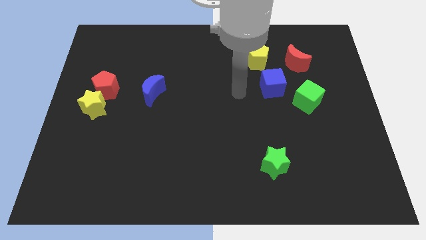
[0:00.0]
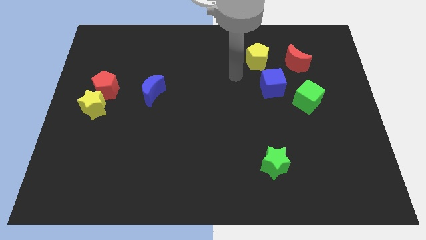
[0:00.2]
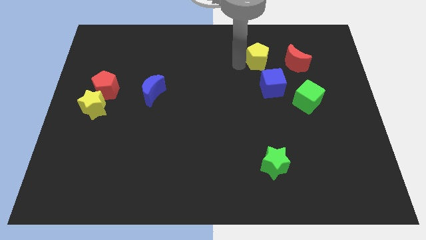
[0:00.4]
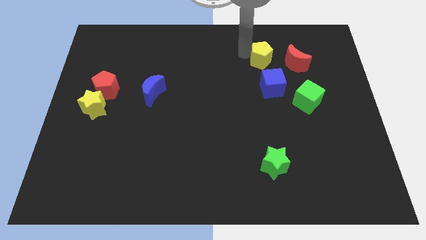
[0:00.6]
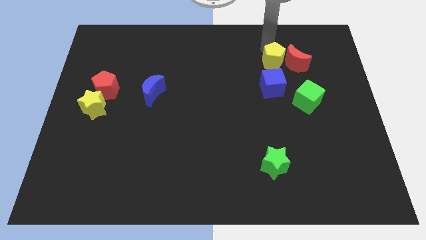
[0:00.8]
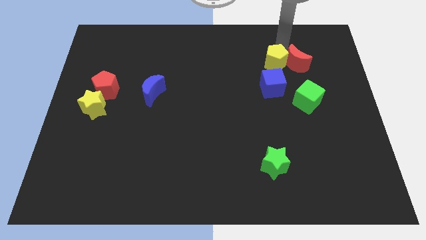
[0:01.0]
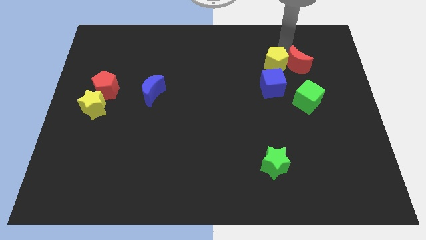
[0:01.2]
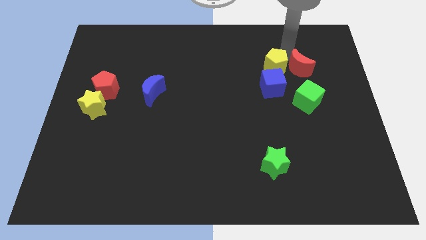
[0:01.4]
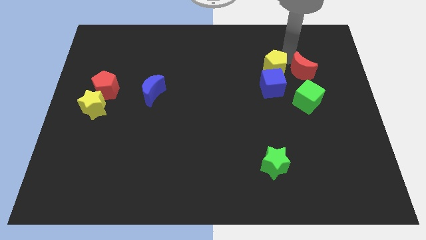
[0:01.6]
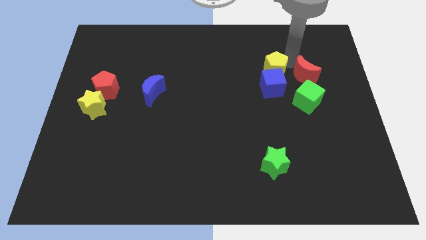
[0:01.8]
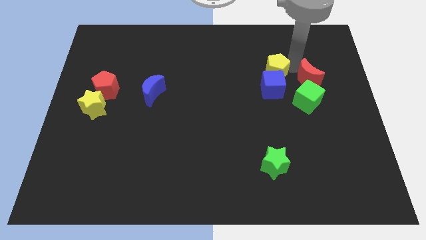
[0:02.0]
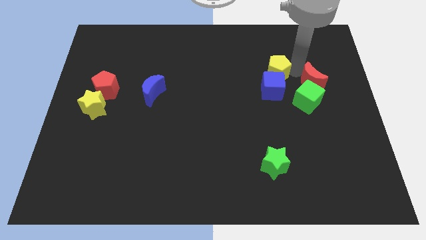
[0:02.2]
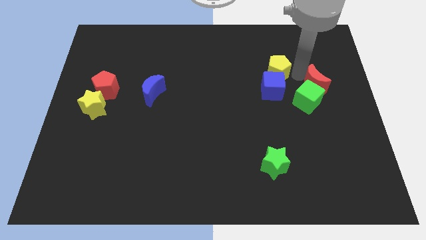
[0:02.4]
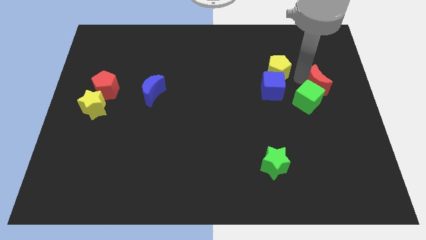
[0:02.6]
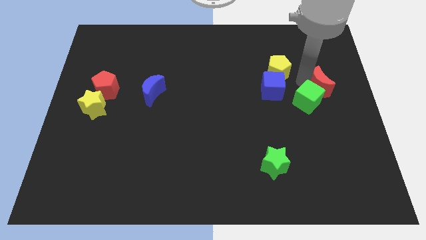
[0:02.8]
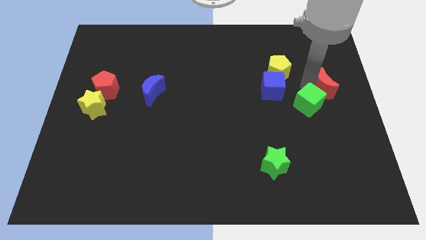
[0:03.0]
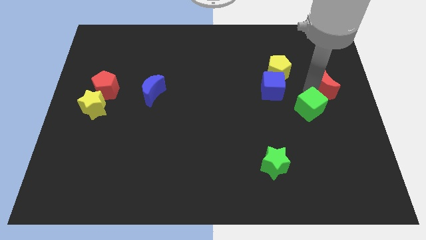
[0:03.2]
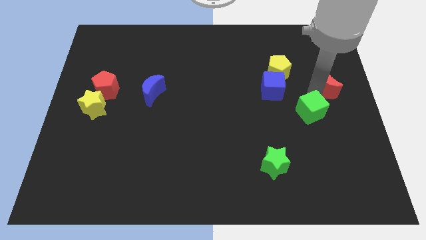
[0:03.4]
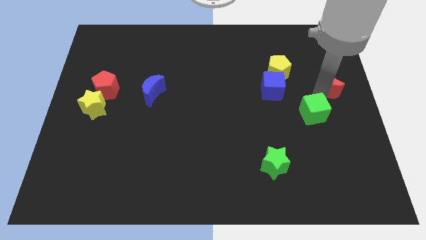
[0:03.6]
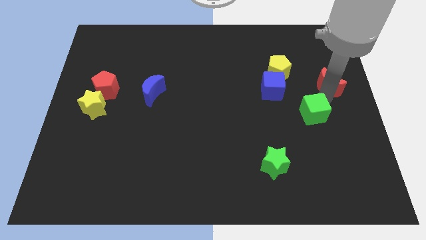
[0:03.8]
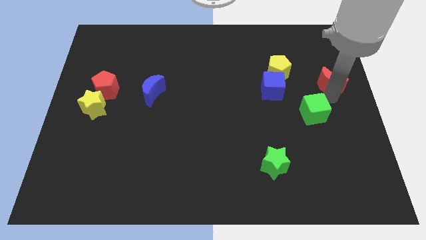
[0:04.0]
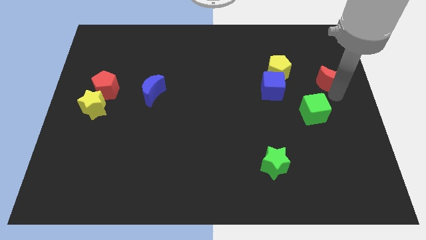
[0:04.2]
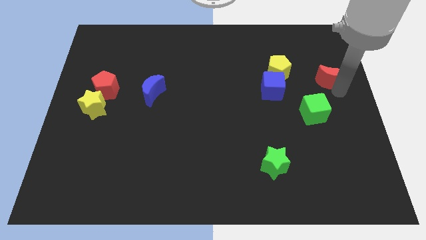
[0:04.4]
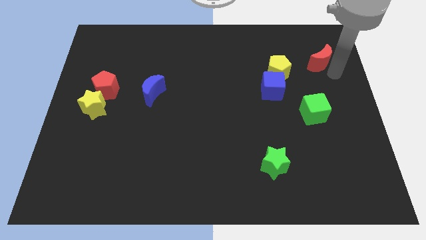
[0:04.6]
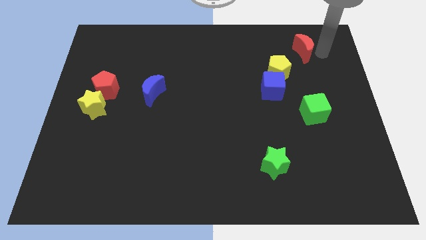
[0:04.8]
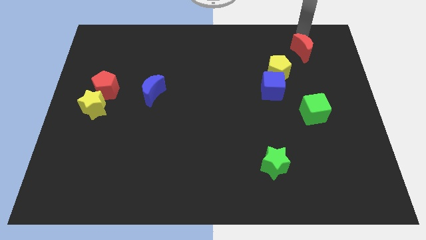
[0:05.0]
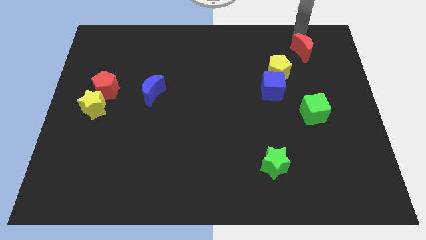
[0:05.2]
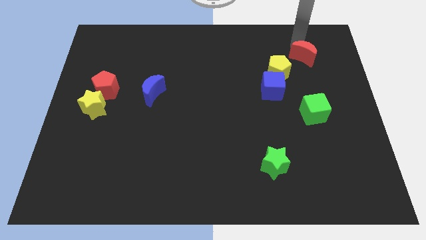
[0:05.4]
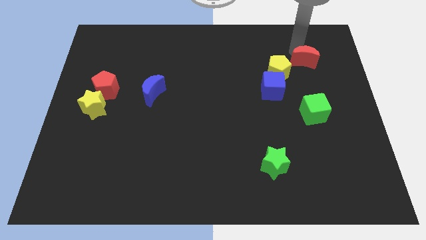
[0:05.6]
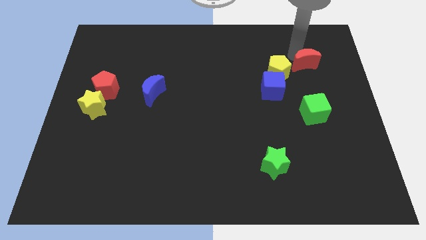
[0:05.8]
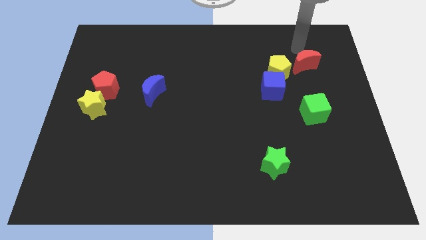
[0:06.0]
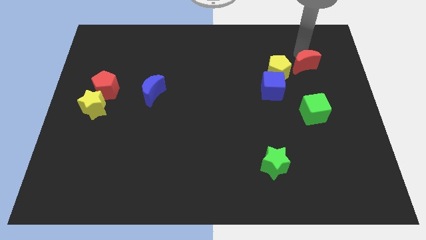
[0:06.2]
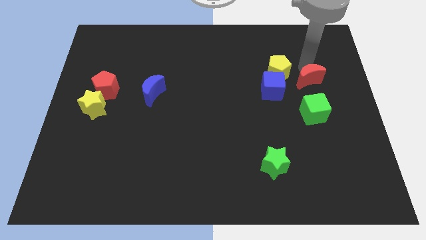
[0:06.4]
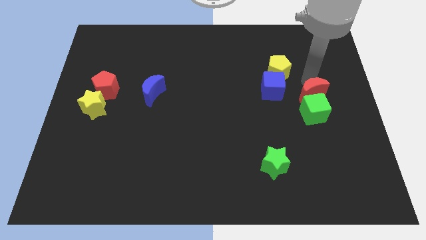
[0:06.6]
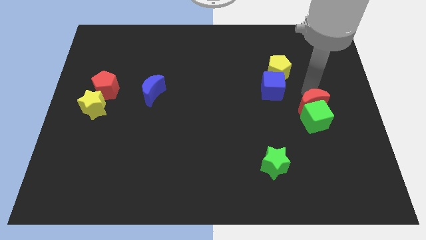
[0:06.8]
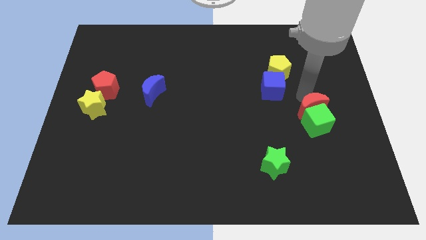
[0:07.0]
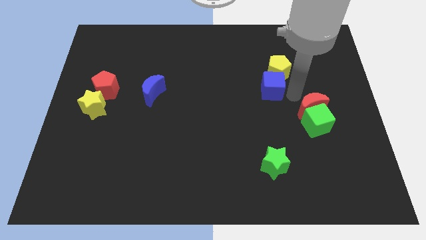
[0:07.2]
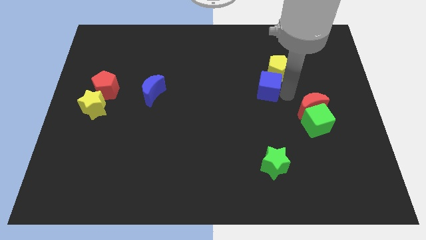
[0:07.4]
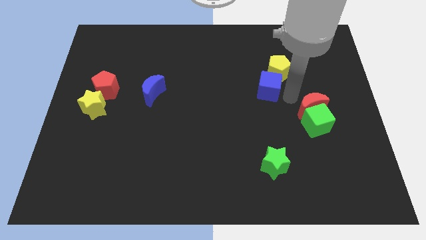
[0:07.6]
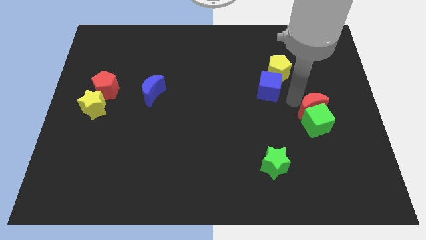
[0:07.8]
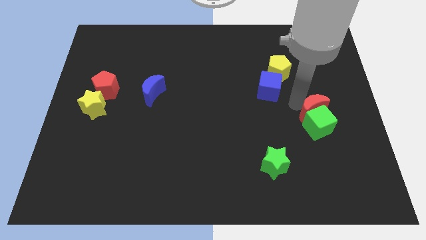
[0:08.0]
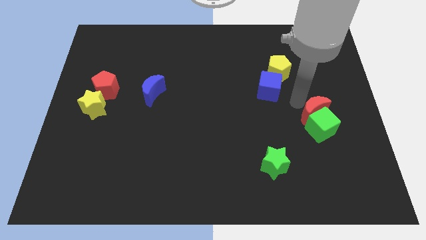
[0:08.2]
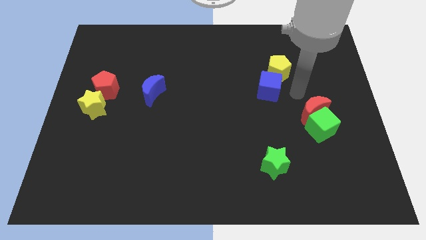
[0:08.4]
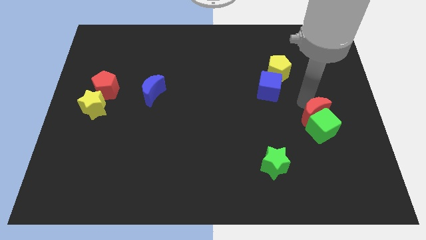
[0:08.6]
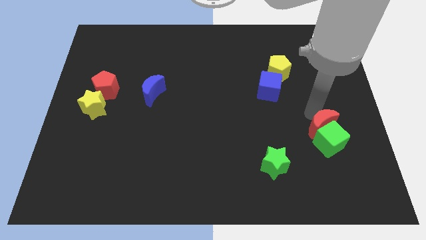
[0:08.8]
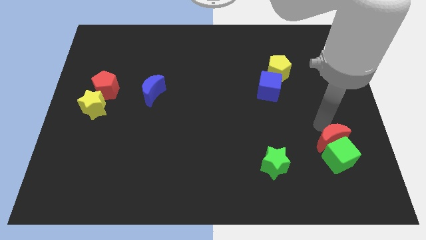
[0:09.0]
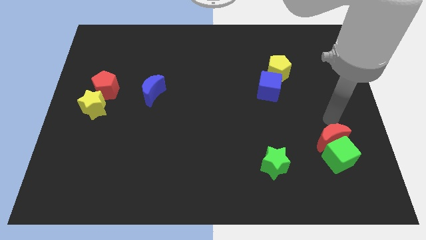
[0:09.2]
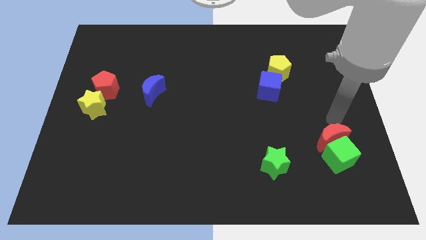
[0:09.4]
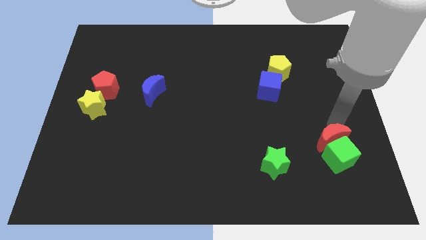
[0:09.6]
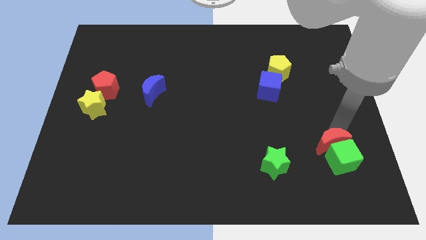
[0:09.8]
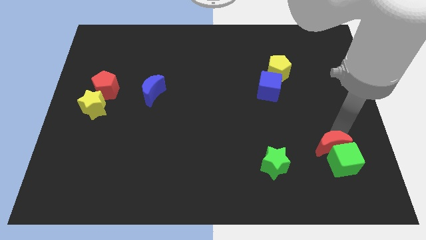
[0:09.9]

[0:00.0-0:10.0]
move the red moon to the right side of the green star

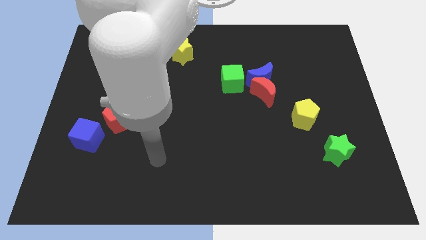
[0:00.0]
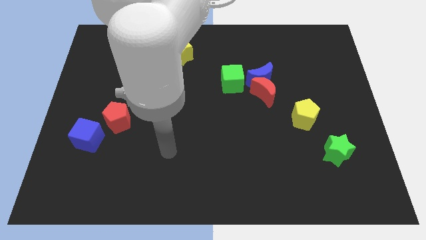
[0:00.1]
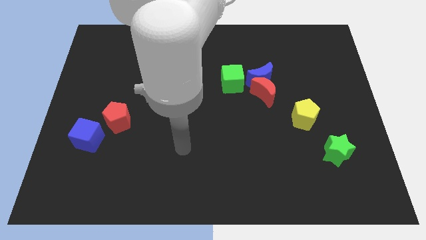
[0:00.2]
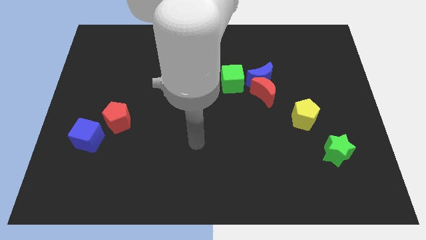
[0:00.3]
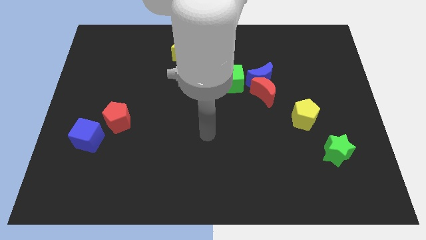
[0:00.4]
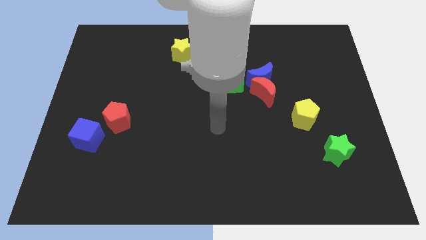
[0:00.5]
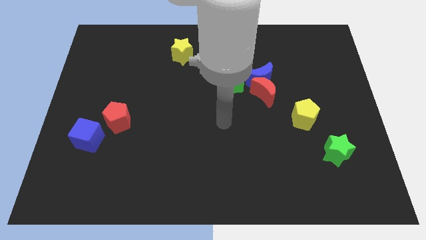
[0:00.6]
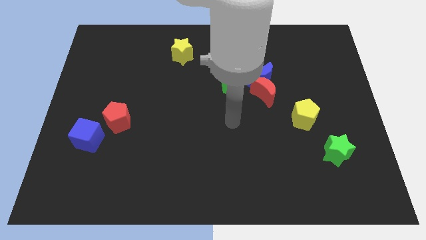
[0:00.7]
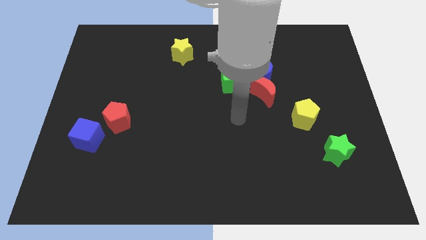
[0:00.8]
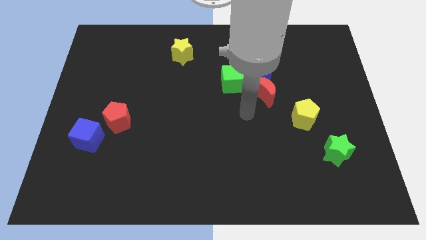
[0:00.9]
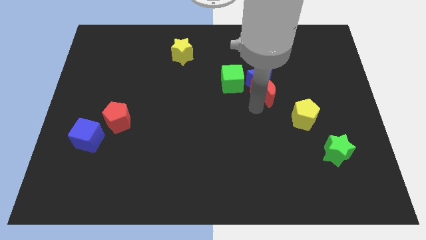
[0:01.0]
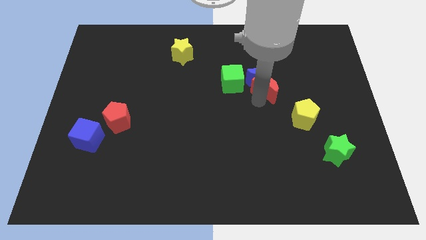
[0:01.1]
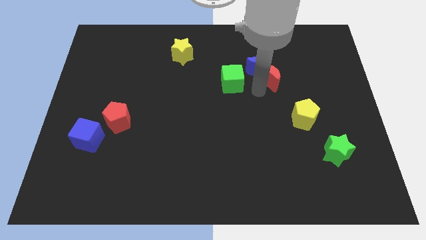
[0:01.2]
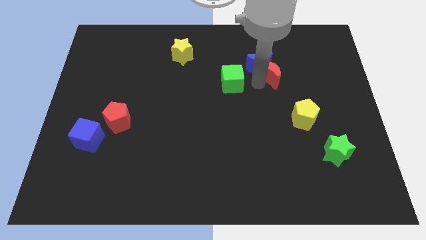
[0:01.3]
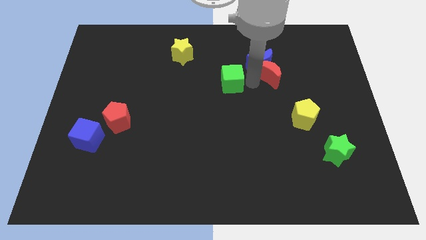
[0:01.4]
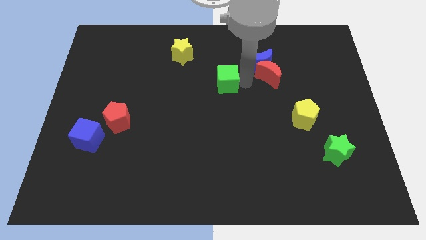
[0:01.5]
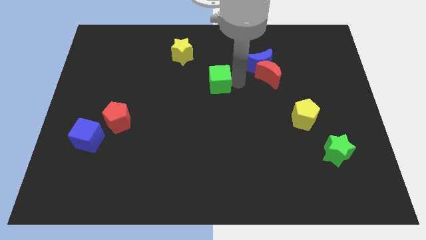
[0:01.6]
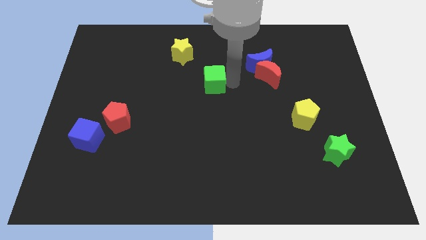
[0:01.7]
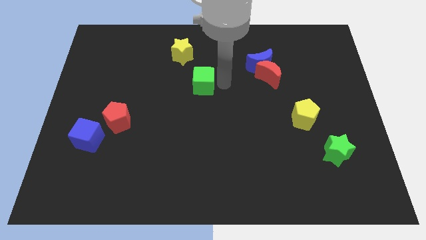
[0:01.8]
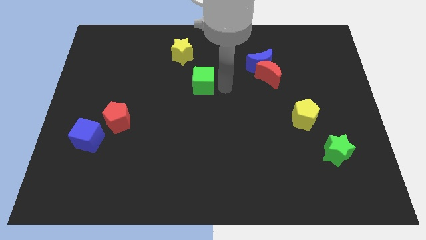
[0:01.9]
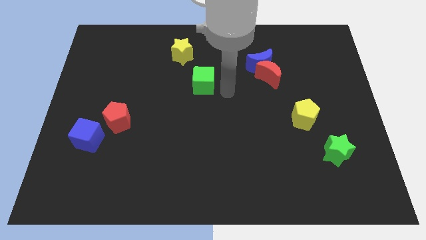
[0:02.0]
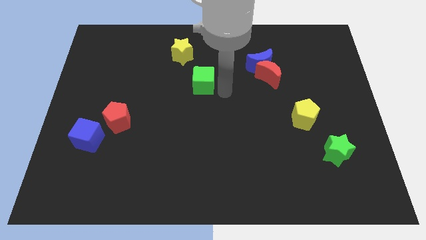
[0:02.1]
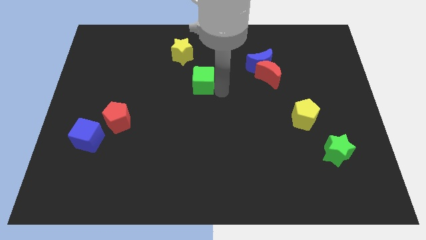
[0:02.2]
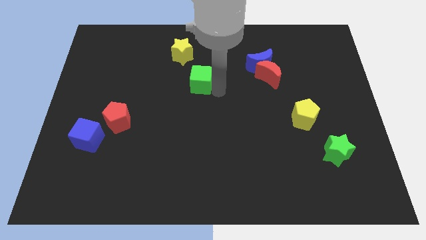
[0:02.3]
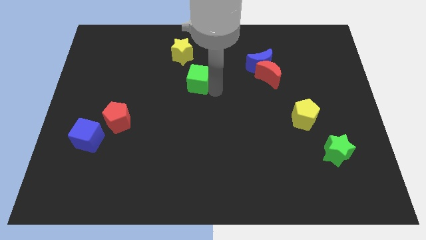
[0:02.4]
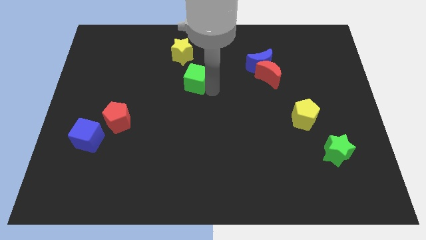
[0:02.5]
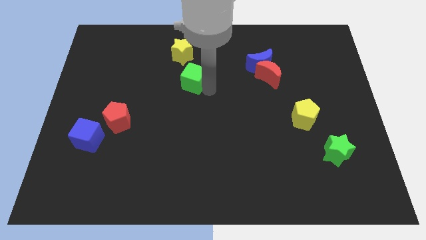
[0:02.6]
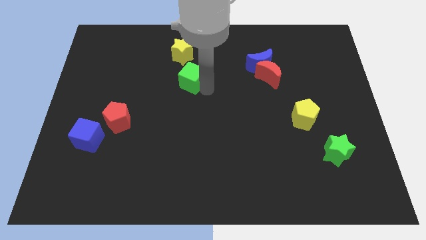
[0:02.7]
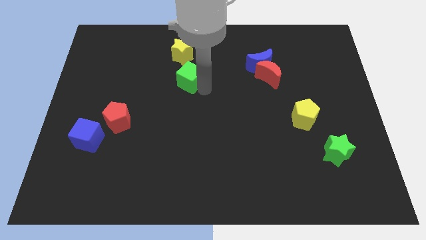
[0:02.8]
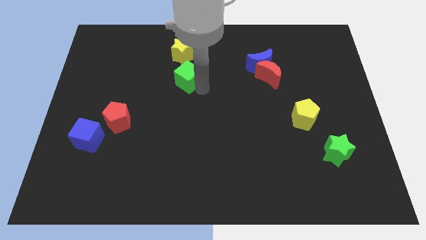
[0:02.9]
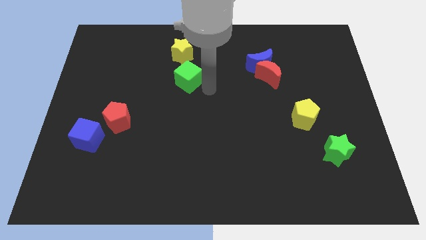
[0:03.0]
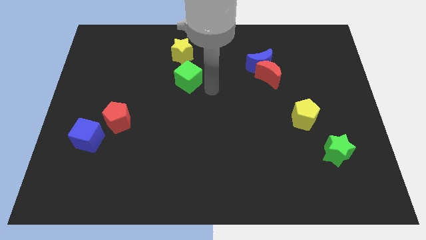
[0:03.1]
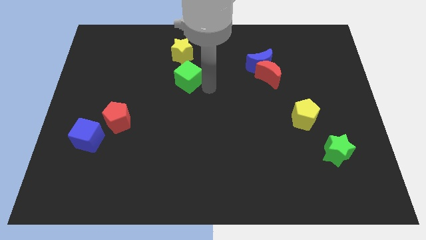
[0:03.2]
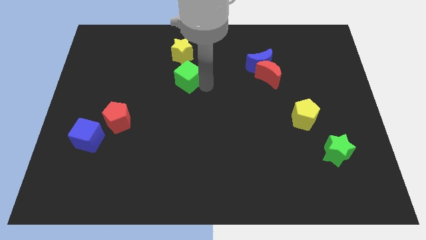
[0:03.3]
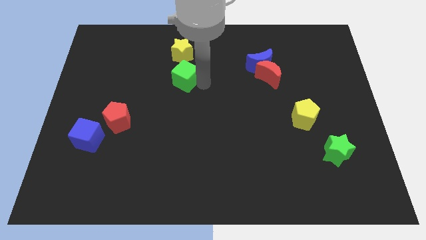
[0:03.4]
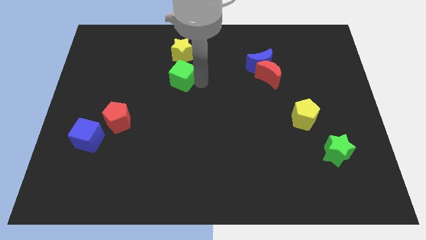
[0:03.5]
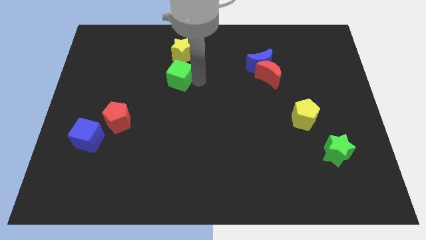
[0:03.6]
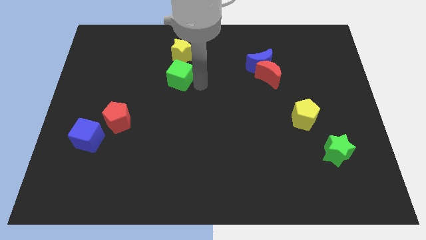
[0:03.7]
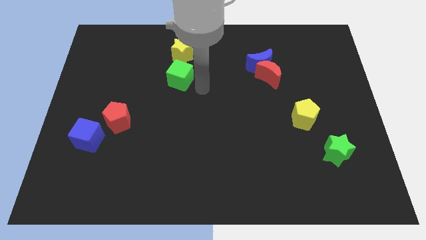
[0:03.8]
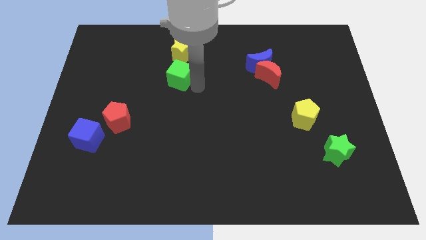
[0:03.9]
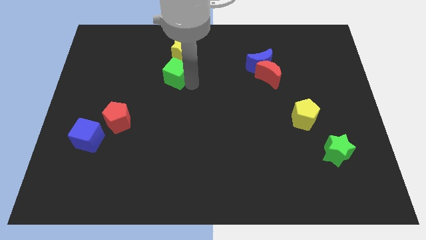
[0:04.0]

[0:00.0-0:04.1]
push the green cube to the bottom left side of the yellow star
